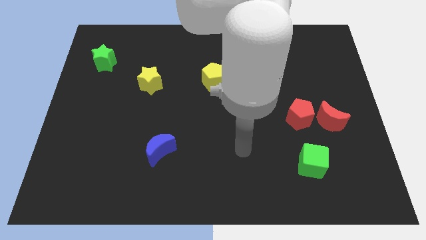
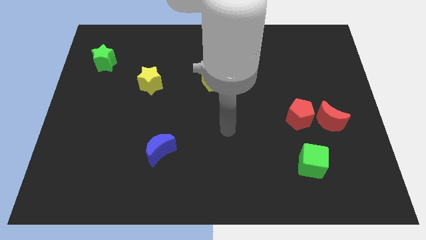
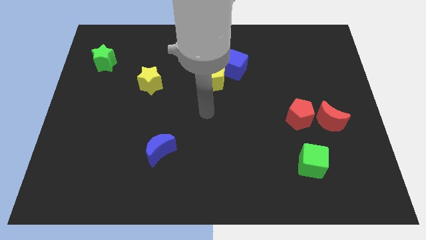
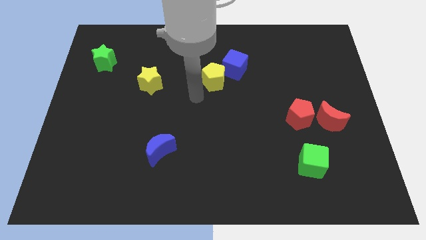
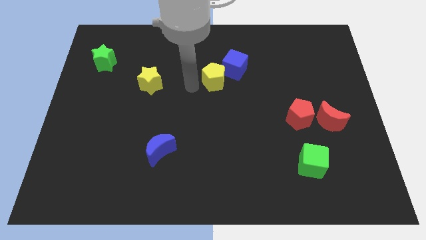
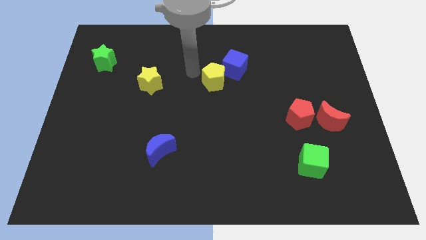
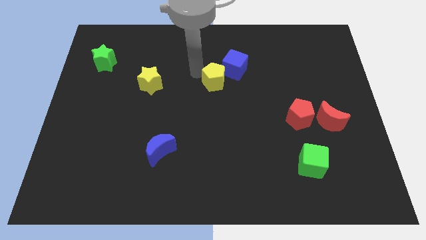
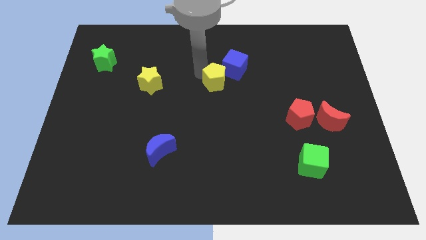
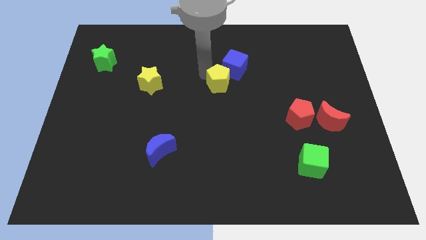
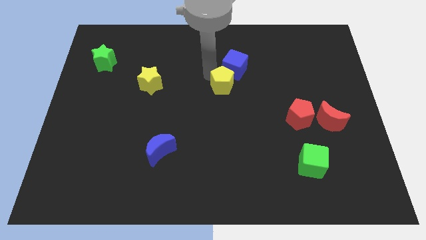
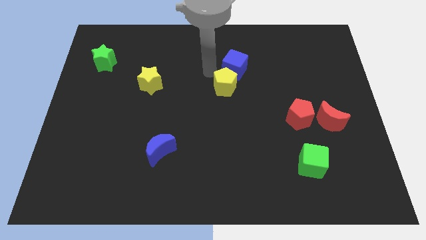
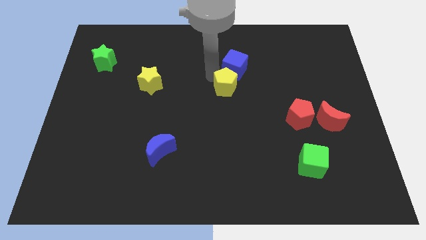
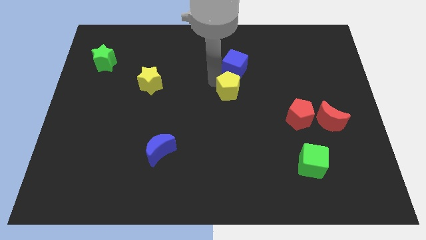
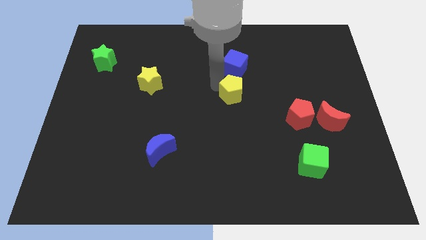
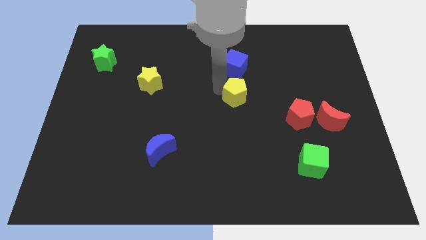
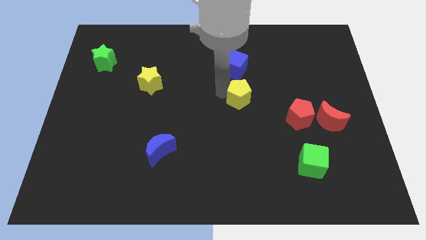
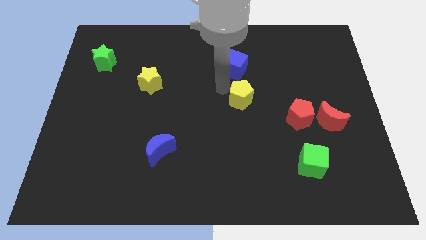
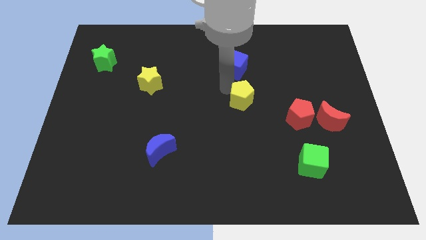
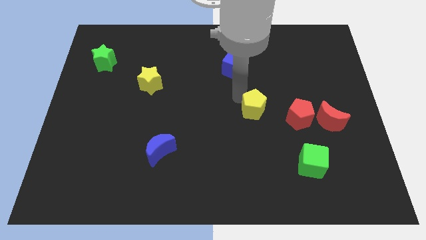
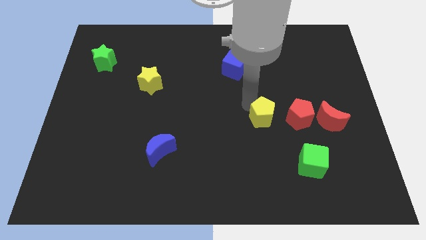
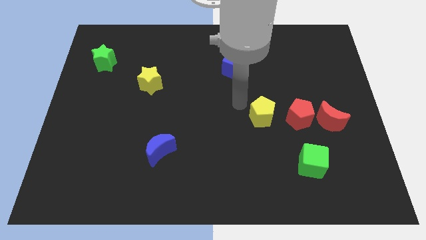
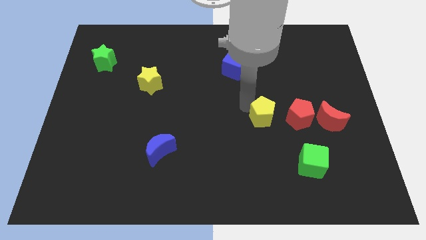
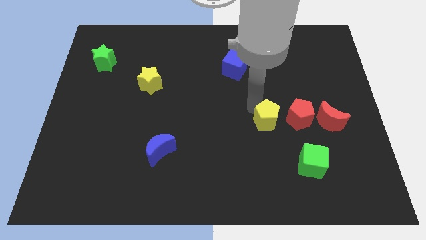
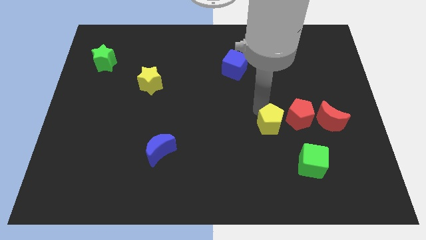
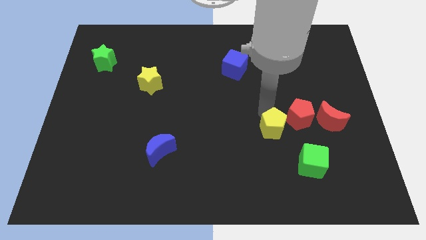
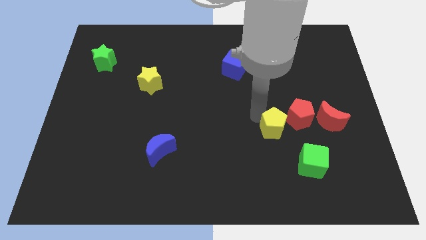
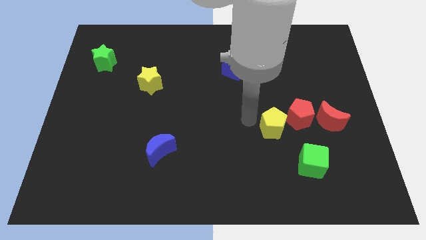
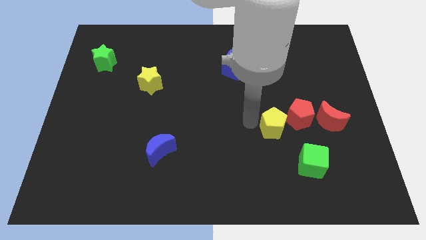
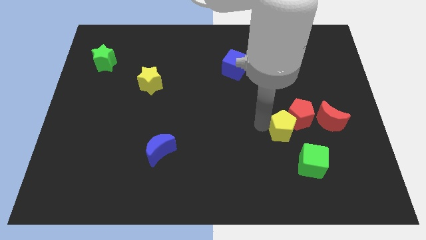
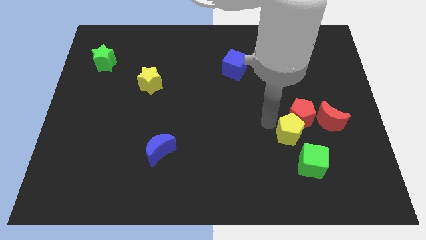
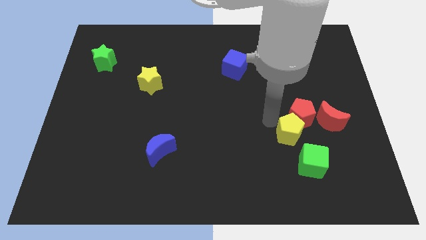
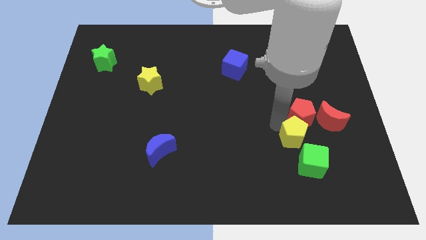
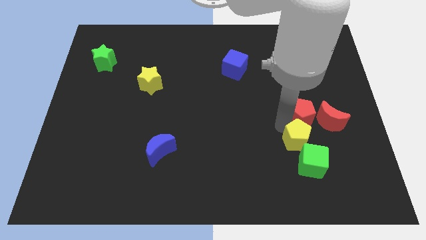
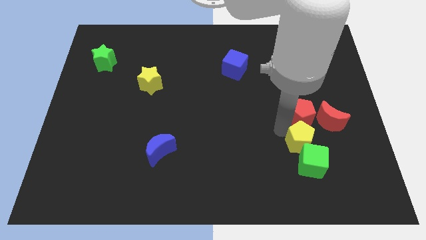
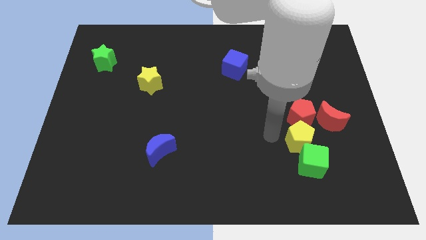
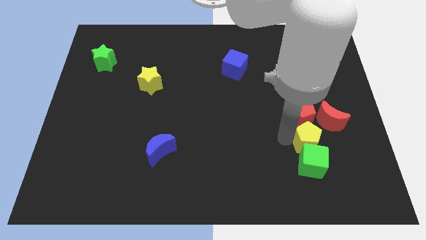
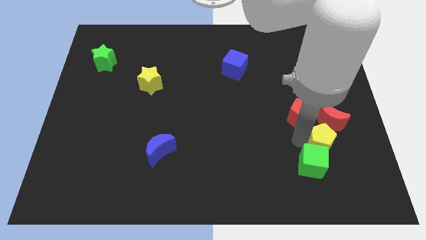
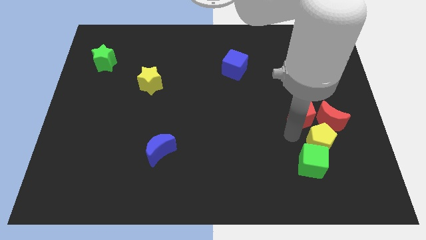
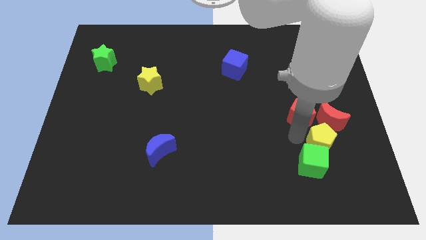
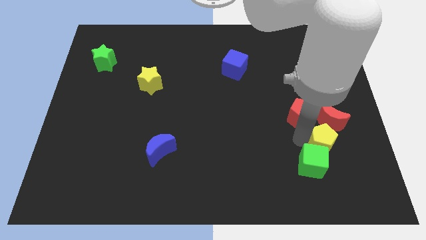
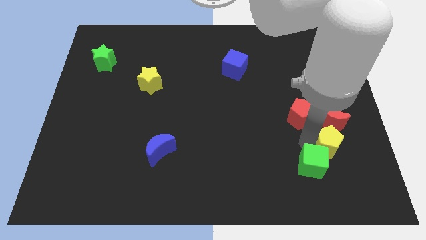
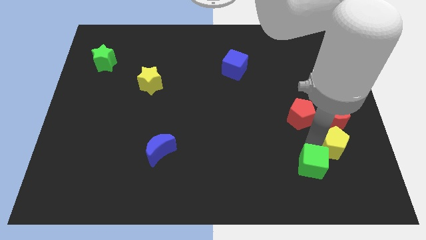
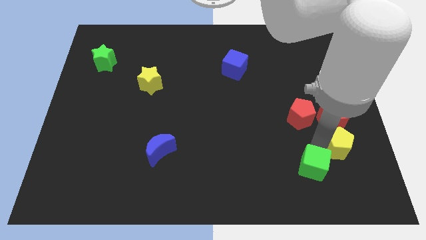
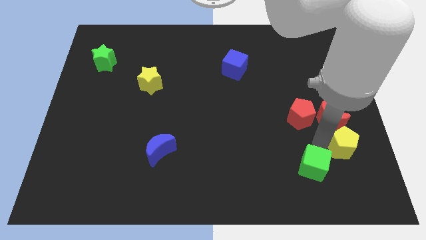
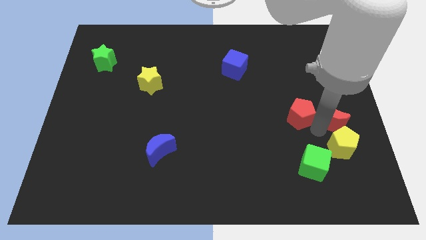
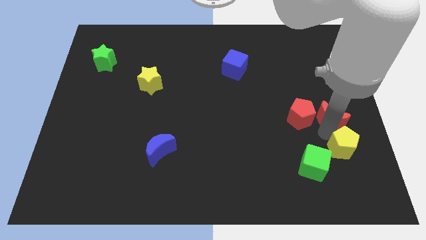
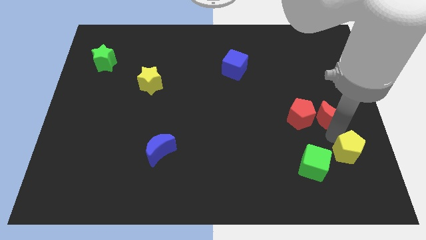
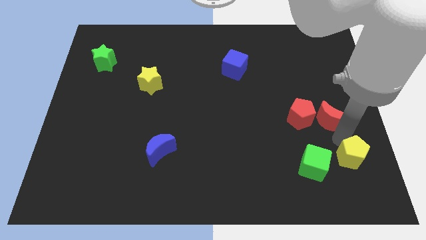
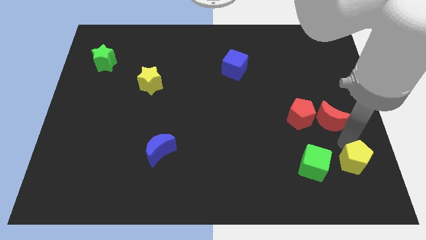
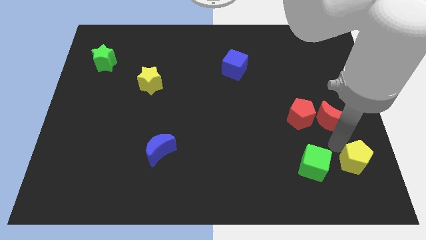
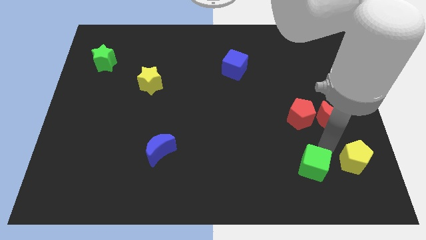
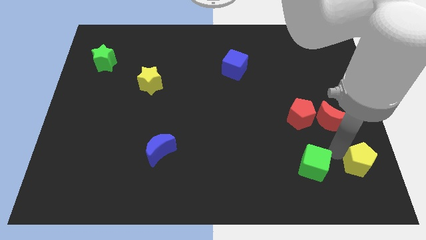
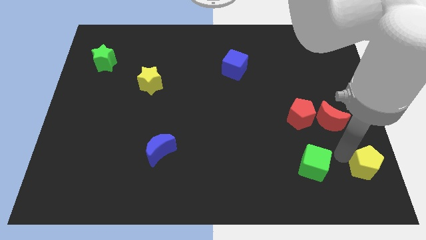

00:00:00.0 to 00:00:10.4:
move the yellow pentagon to the lower right corner

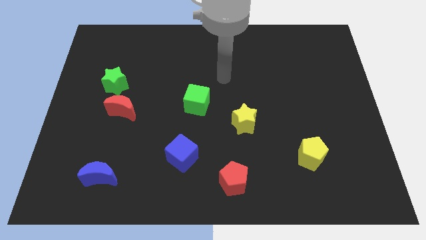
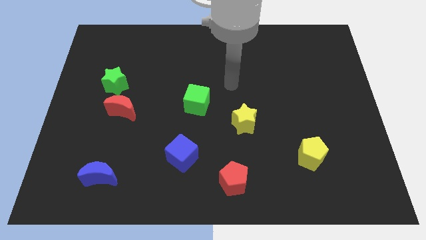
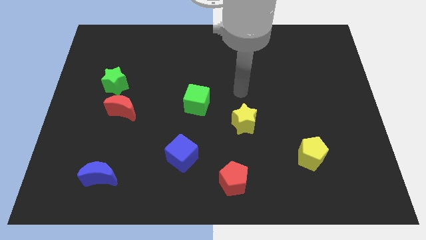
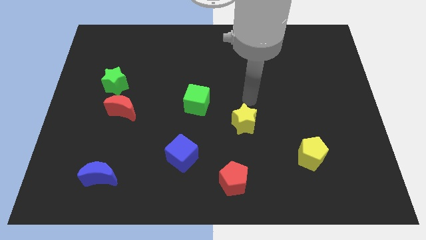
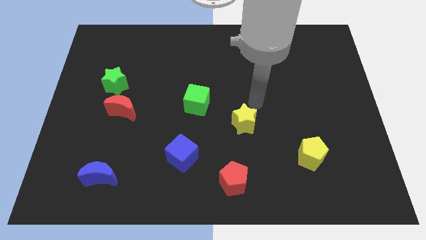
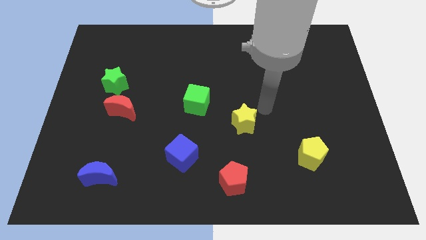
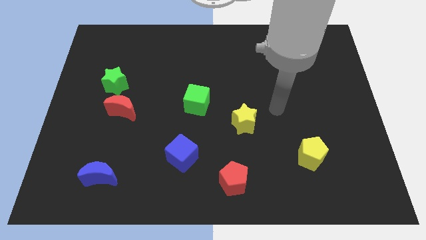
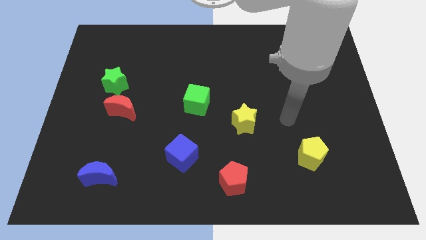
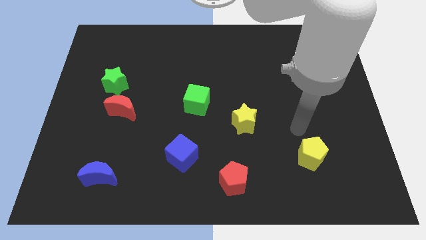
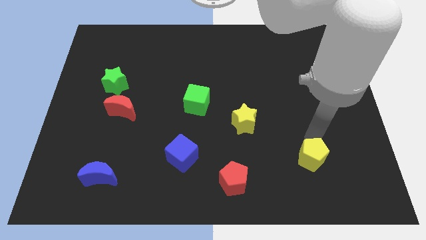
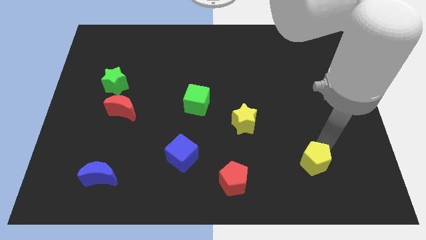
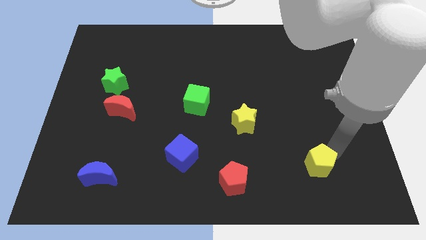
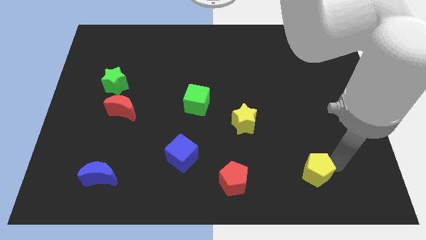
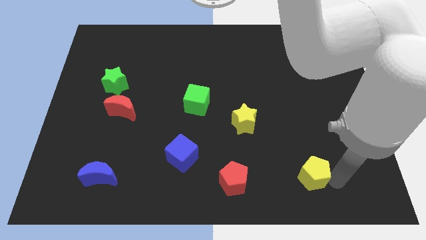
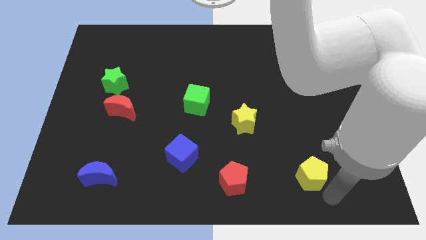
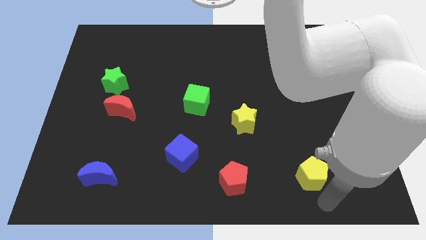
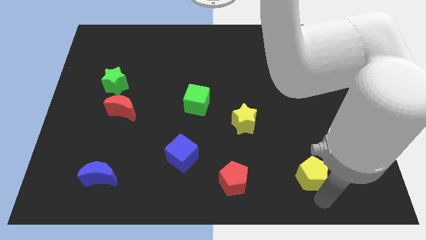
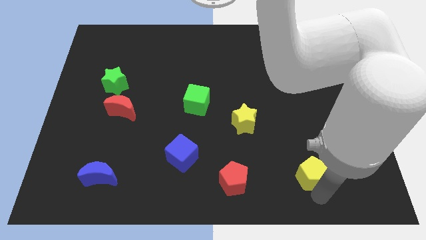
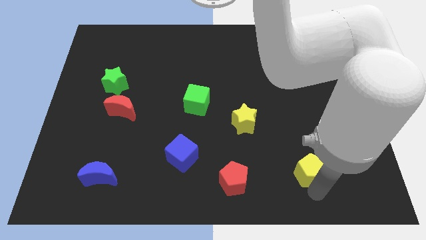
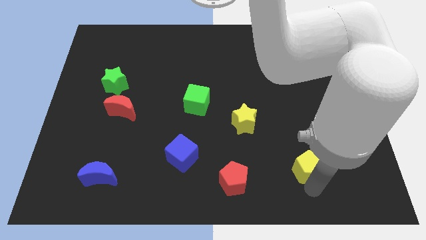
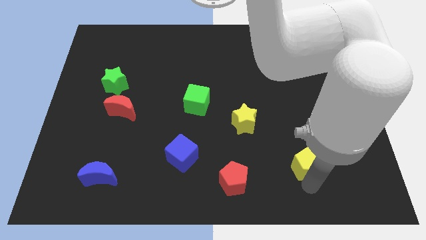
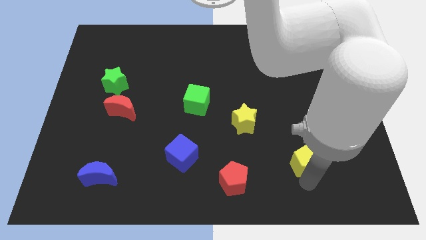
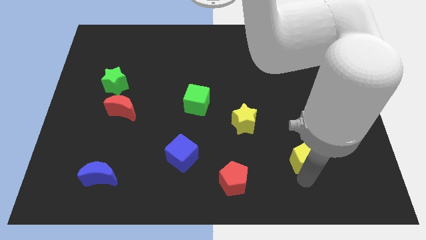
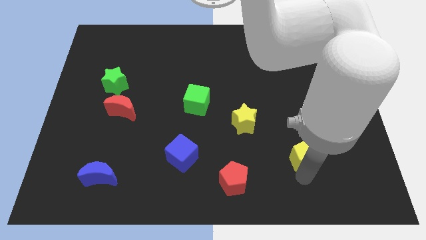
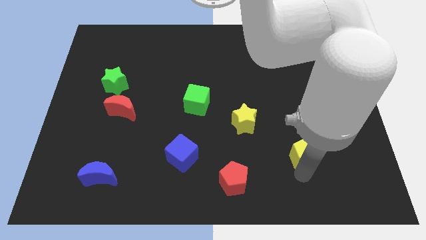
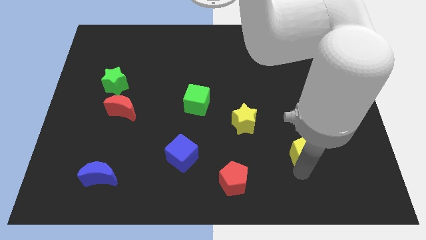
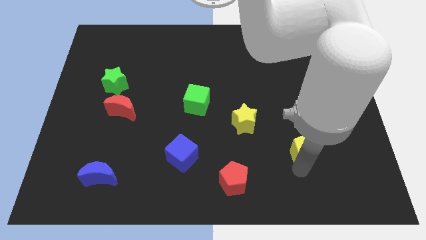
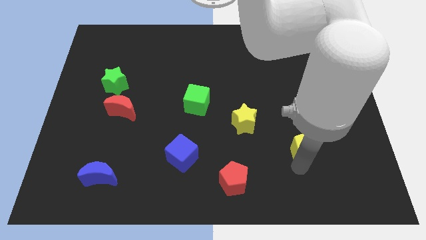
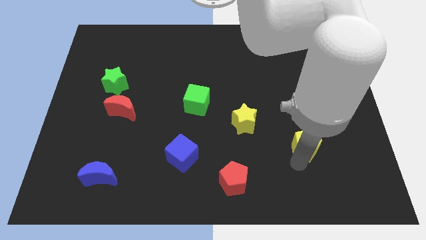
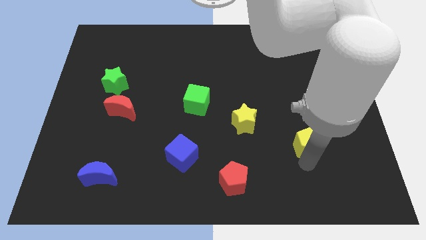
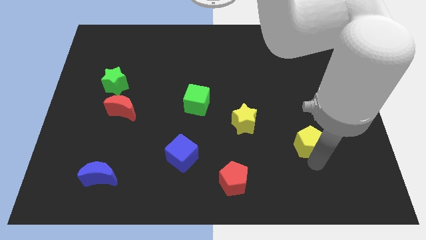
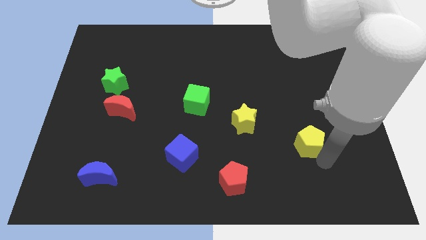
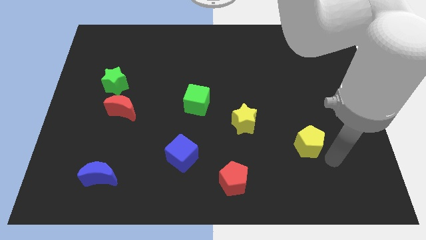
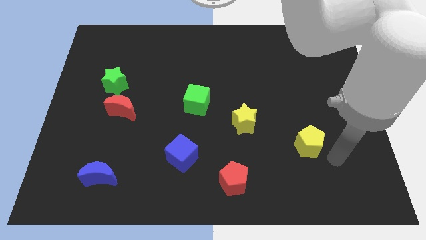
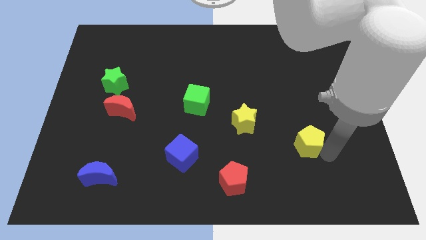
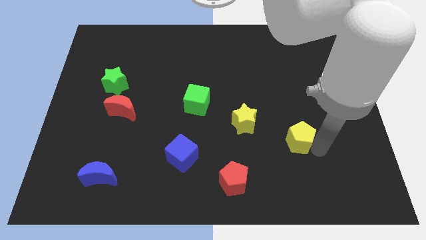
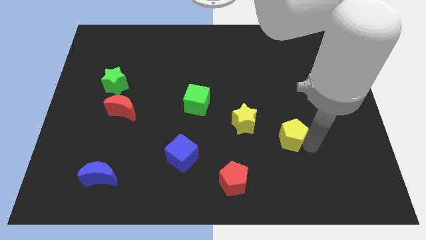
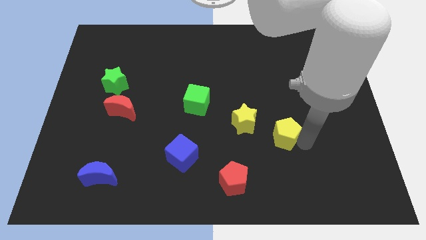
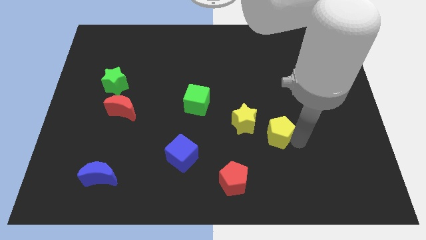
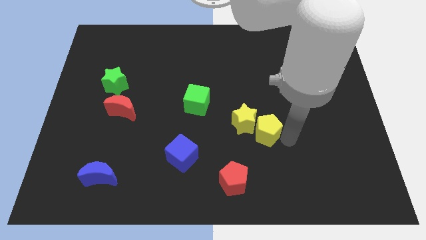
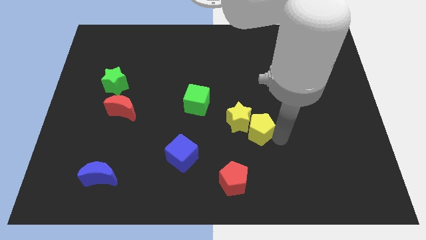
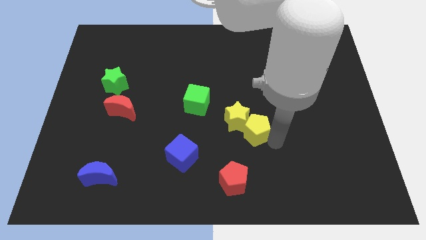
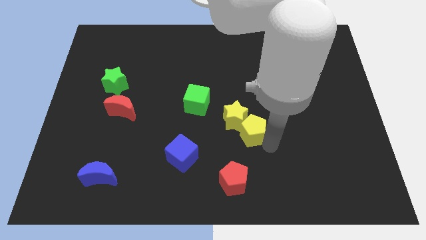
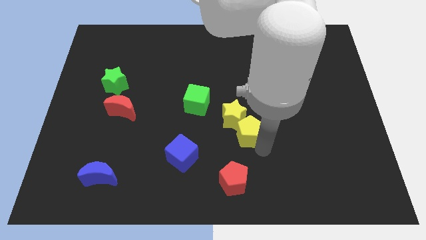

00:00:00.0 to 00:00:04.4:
move the yellow pentagon to the middle of the board
